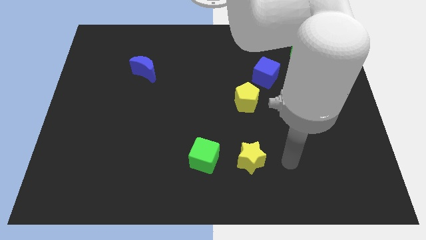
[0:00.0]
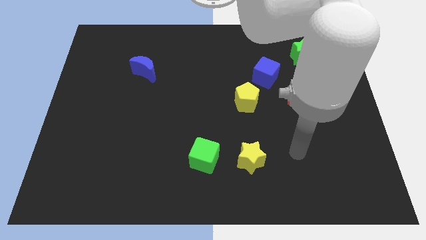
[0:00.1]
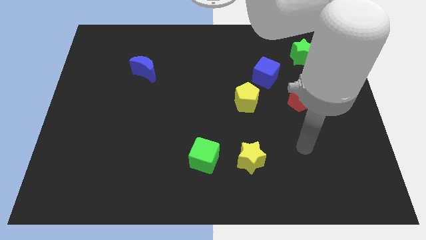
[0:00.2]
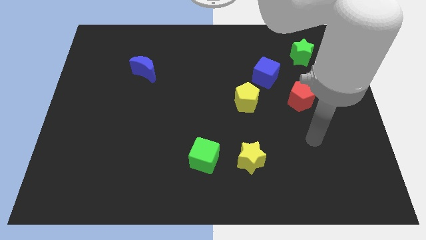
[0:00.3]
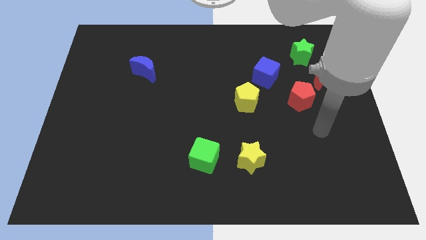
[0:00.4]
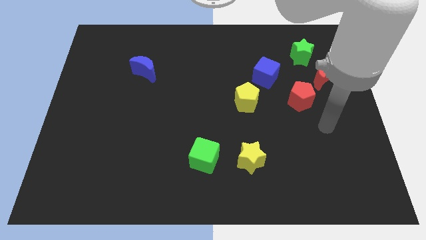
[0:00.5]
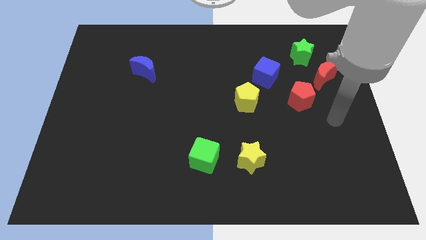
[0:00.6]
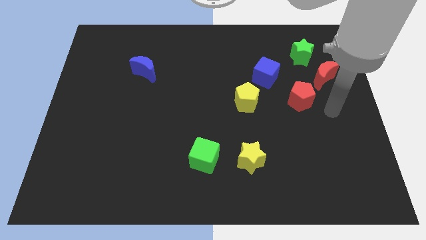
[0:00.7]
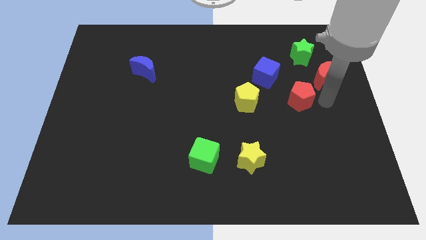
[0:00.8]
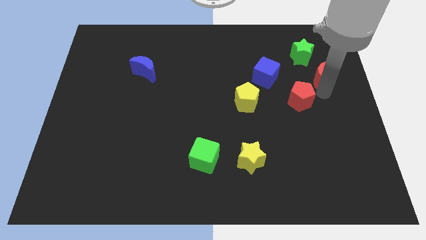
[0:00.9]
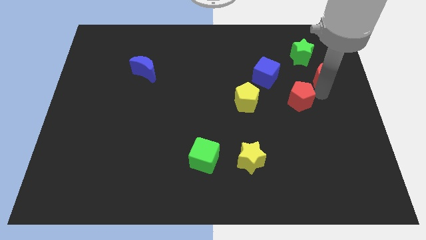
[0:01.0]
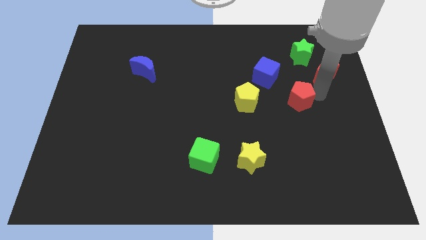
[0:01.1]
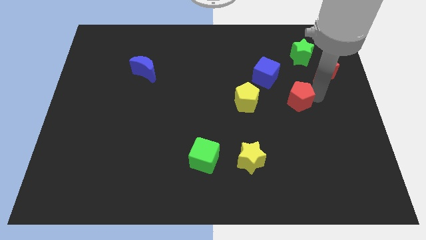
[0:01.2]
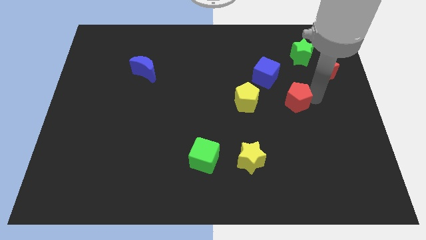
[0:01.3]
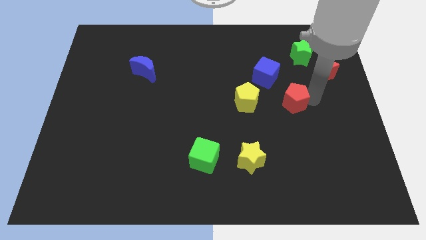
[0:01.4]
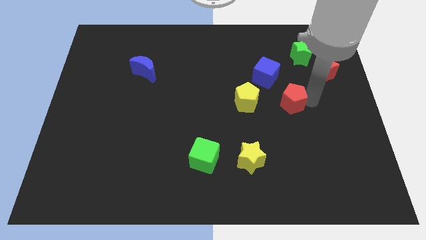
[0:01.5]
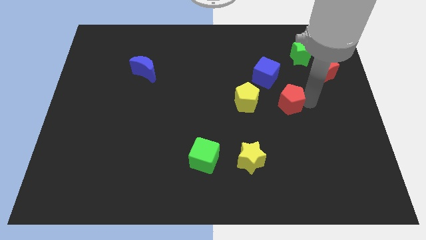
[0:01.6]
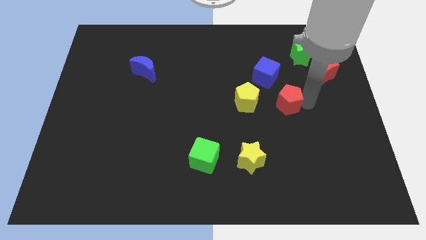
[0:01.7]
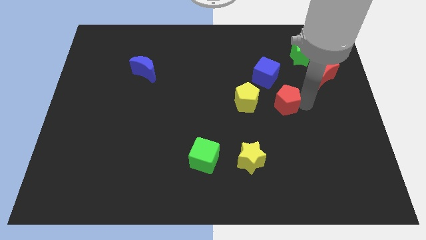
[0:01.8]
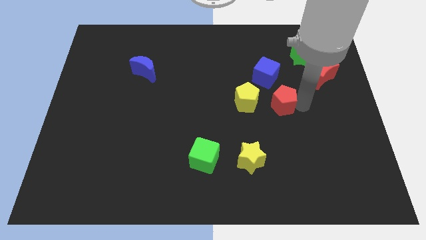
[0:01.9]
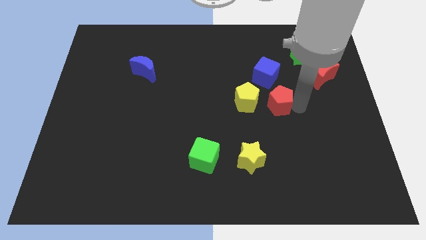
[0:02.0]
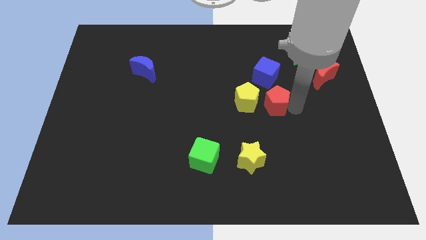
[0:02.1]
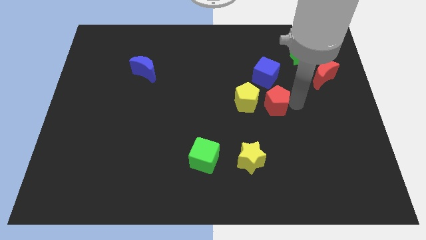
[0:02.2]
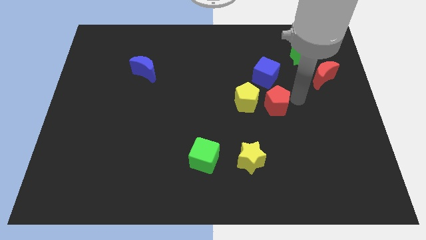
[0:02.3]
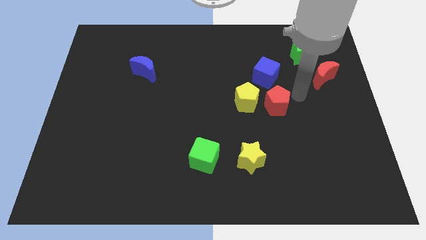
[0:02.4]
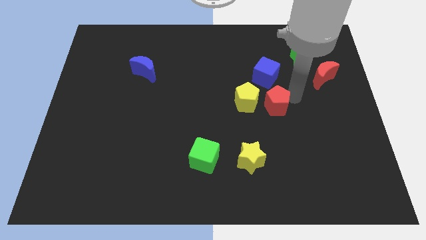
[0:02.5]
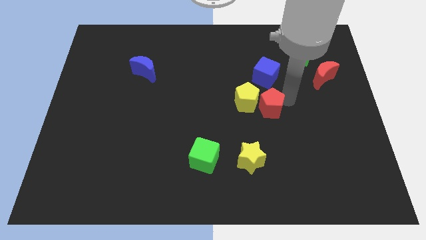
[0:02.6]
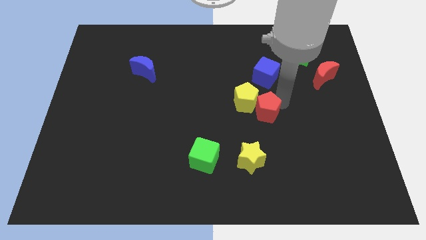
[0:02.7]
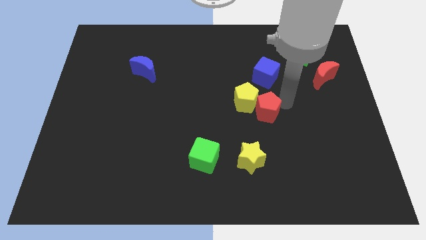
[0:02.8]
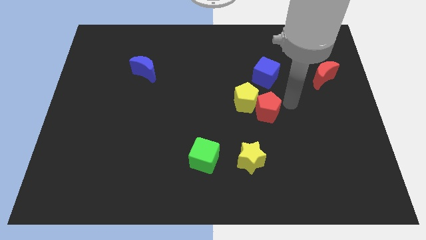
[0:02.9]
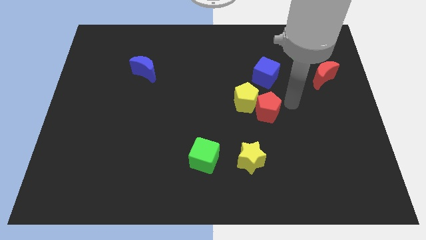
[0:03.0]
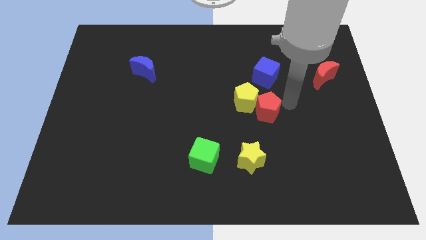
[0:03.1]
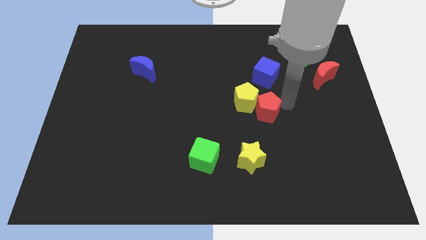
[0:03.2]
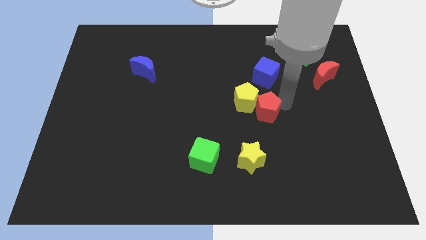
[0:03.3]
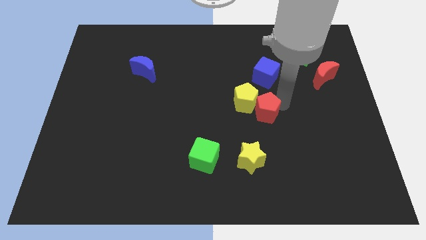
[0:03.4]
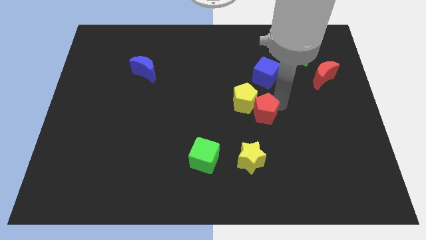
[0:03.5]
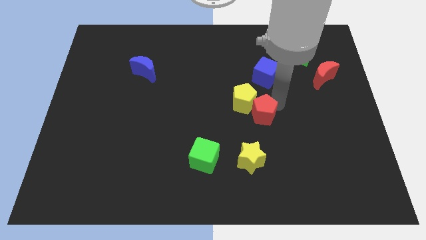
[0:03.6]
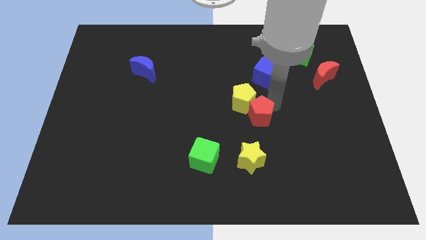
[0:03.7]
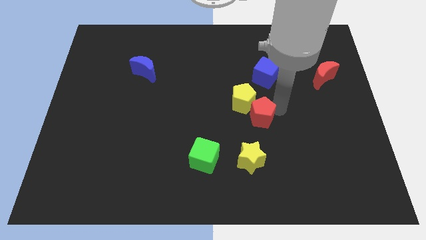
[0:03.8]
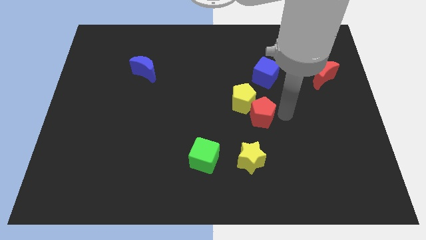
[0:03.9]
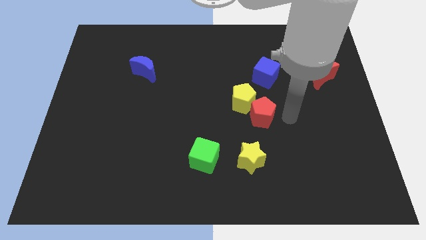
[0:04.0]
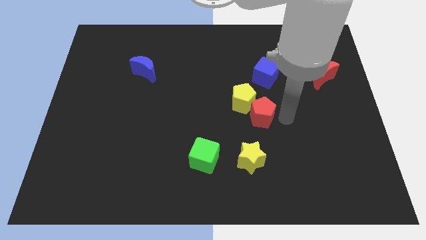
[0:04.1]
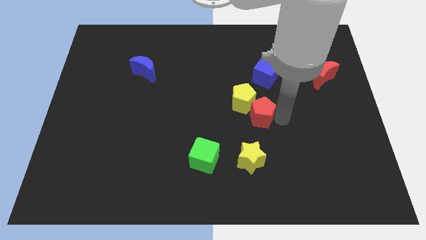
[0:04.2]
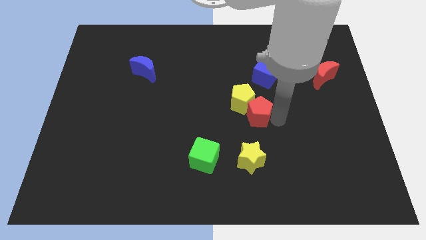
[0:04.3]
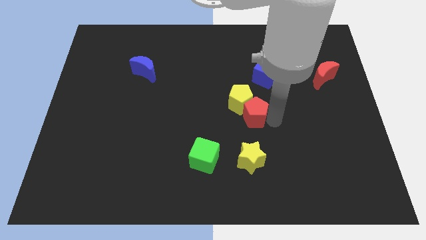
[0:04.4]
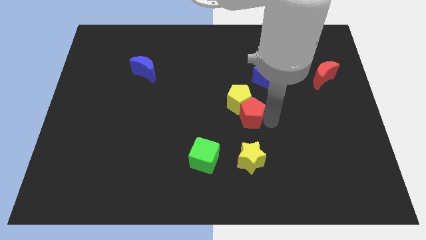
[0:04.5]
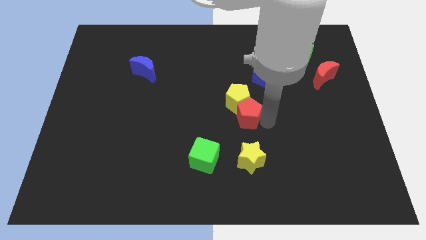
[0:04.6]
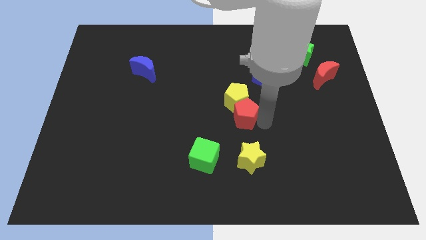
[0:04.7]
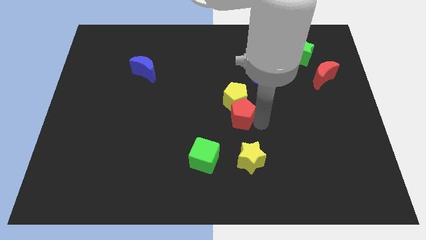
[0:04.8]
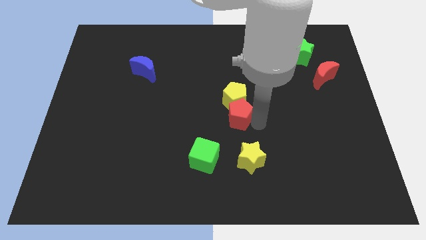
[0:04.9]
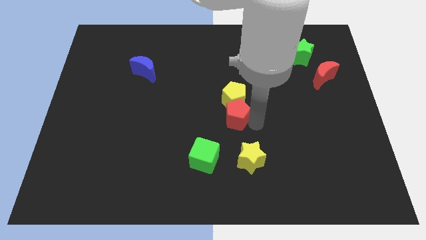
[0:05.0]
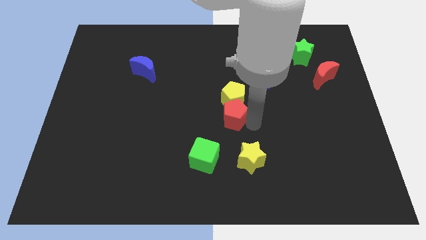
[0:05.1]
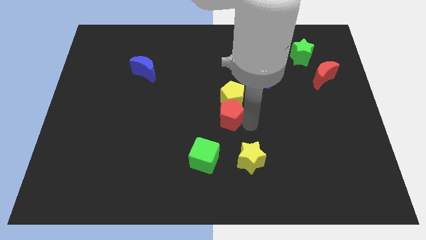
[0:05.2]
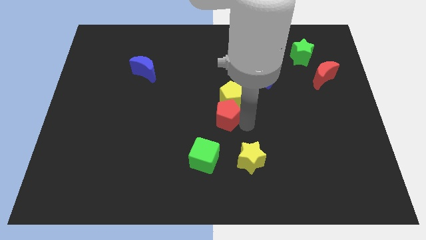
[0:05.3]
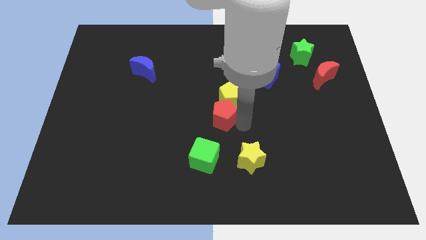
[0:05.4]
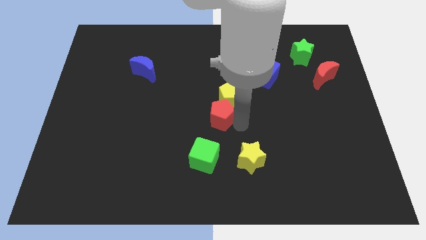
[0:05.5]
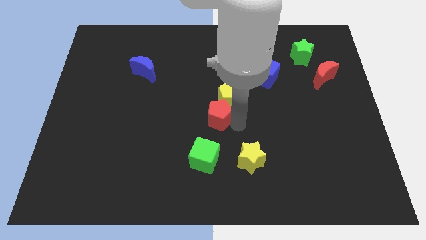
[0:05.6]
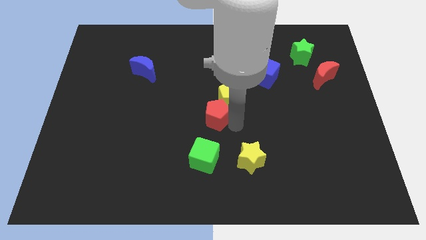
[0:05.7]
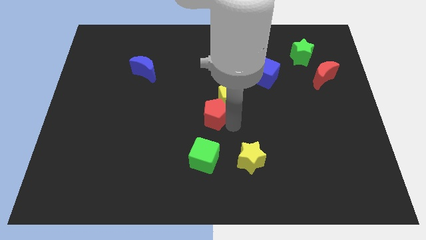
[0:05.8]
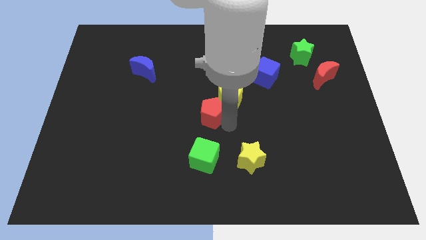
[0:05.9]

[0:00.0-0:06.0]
slide the red pentagon left

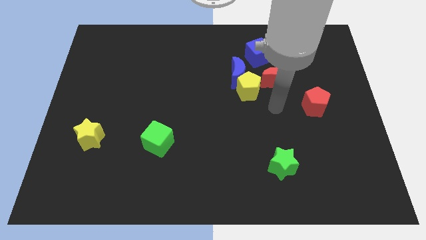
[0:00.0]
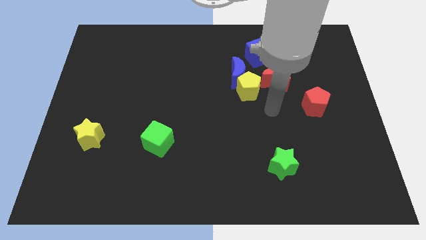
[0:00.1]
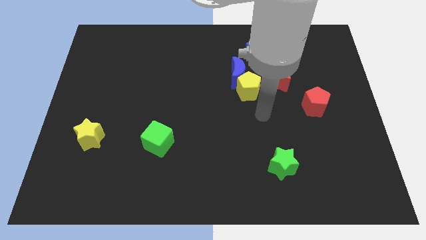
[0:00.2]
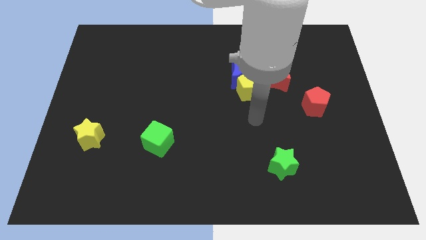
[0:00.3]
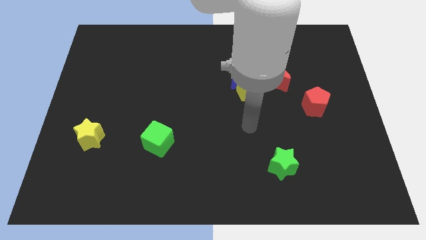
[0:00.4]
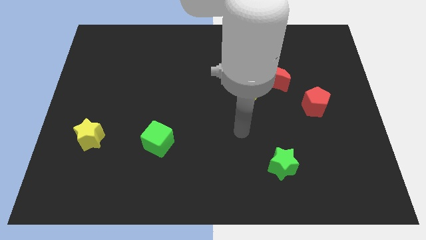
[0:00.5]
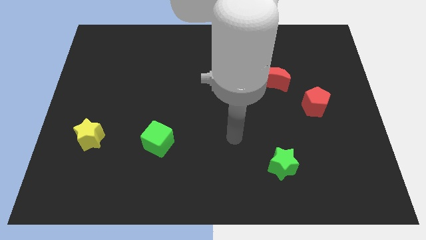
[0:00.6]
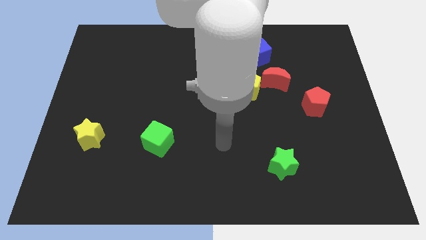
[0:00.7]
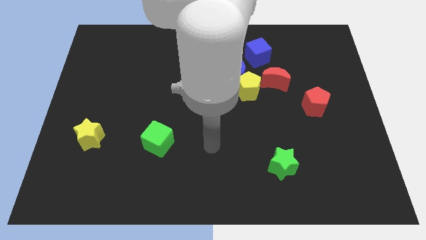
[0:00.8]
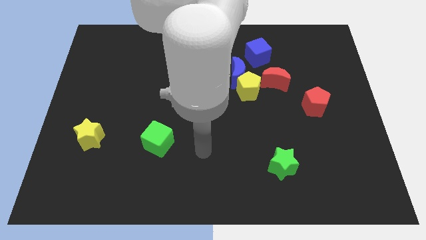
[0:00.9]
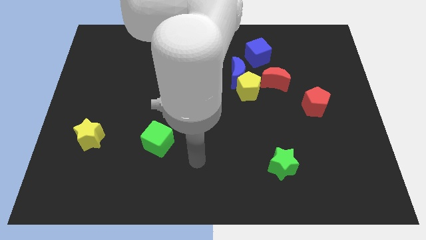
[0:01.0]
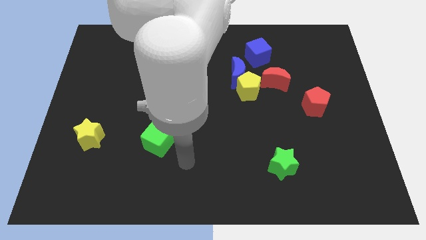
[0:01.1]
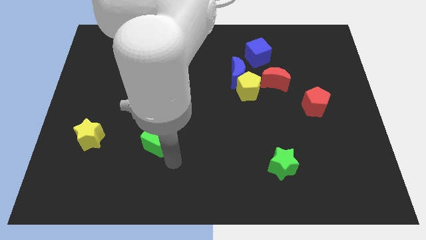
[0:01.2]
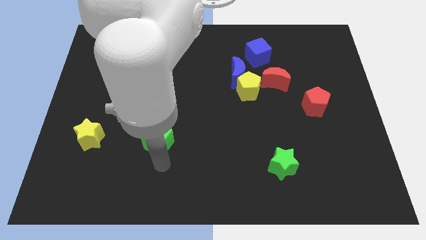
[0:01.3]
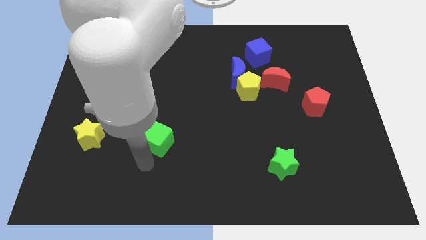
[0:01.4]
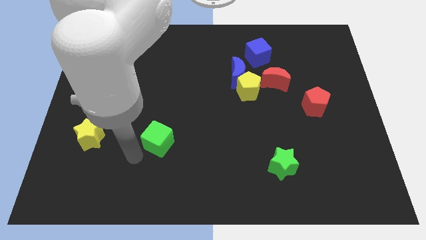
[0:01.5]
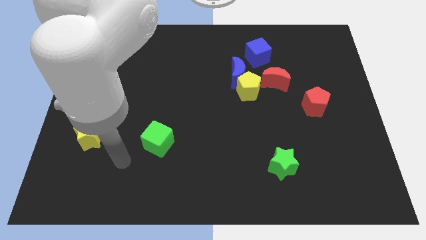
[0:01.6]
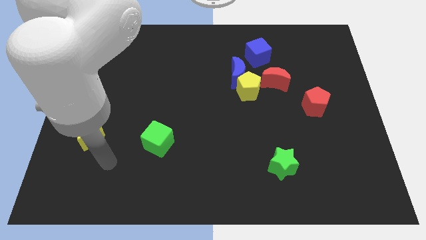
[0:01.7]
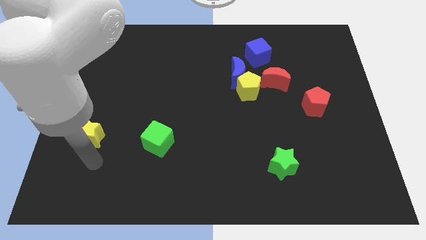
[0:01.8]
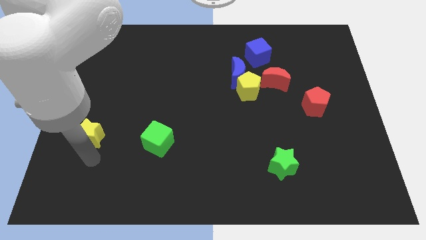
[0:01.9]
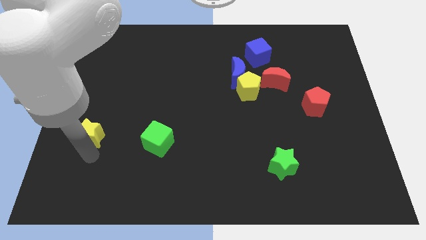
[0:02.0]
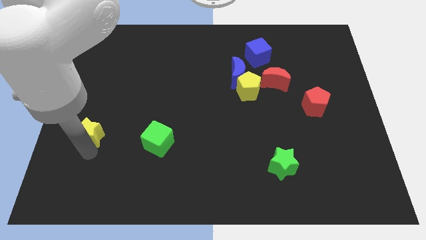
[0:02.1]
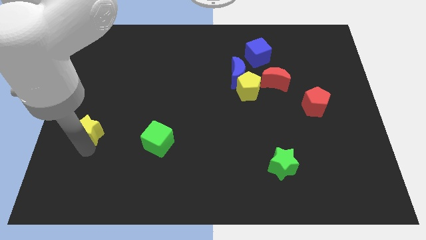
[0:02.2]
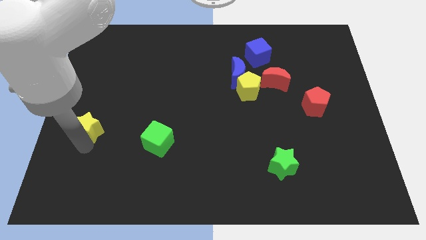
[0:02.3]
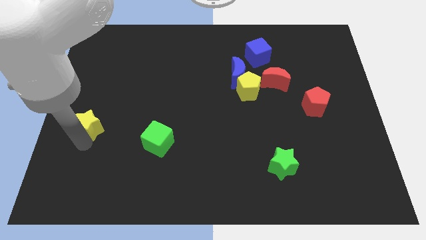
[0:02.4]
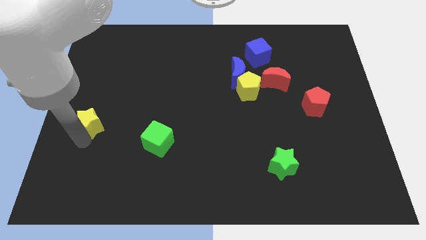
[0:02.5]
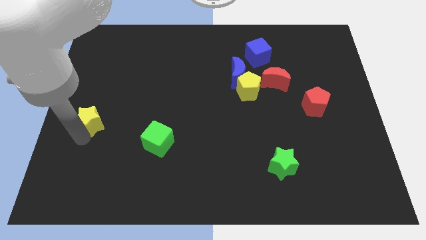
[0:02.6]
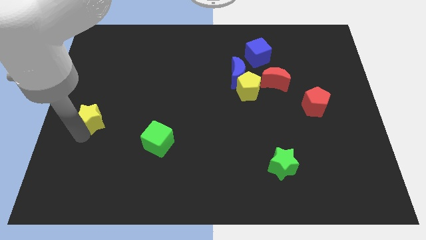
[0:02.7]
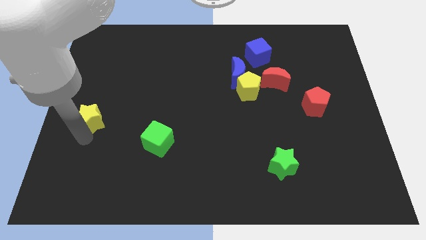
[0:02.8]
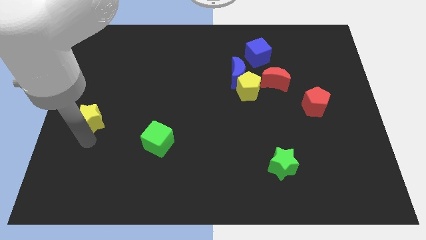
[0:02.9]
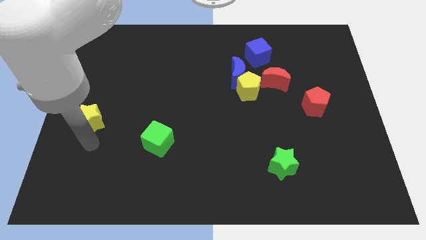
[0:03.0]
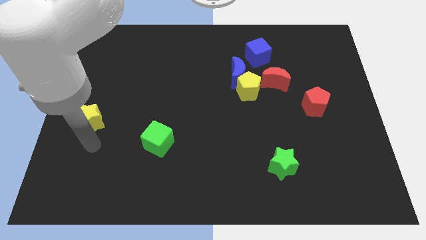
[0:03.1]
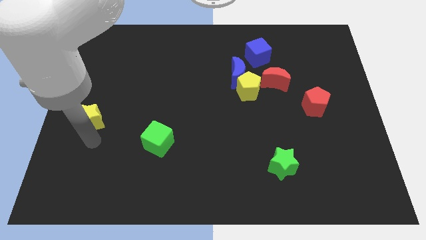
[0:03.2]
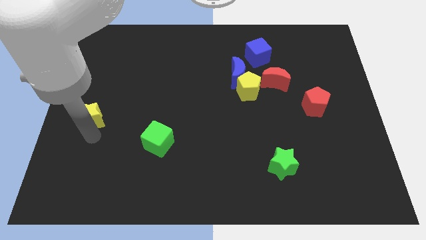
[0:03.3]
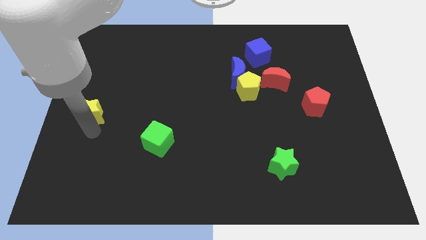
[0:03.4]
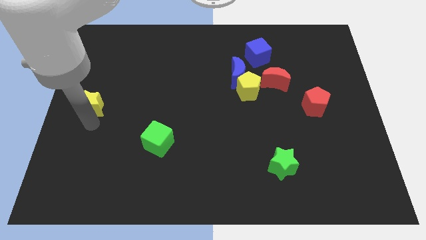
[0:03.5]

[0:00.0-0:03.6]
push the yellow star slightly upwards
